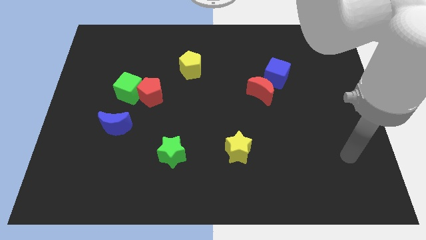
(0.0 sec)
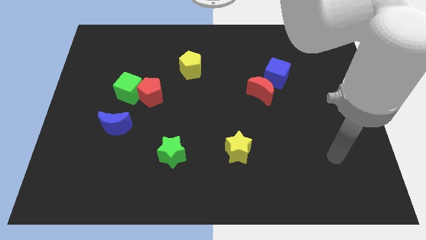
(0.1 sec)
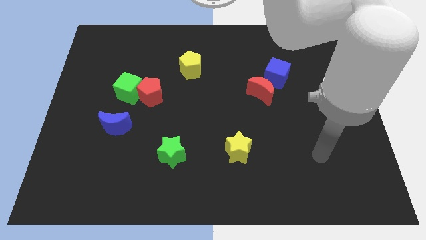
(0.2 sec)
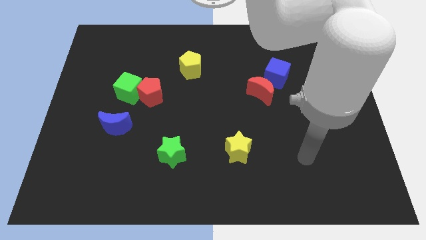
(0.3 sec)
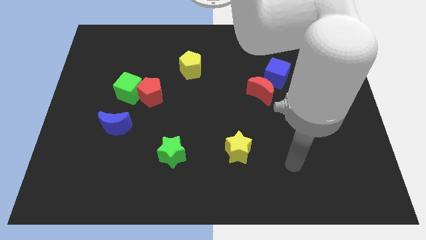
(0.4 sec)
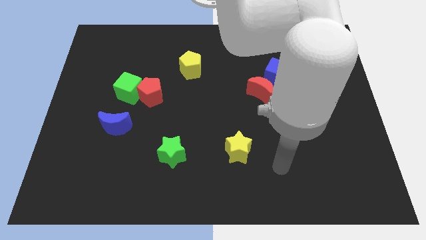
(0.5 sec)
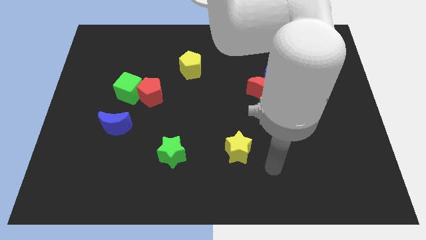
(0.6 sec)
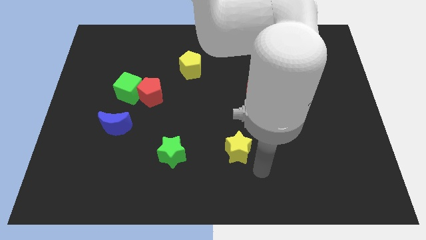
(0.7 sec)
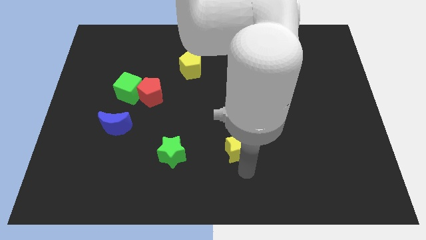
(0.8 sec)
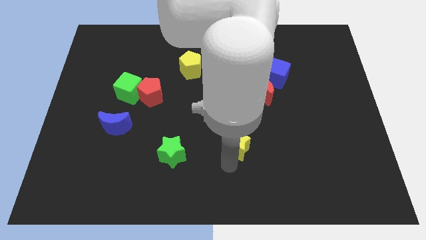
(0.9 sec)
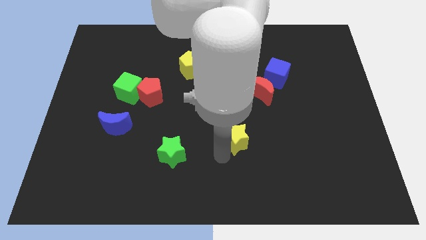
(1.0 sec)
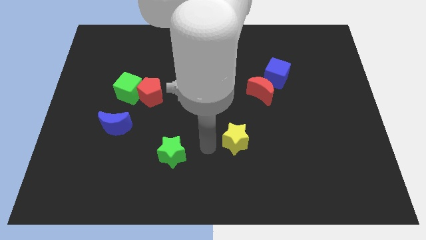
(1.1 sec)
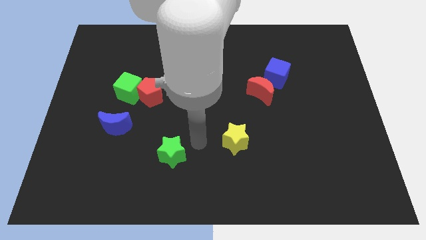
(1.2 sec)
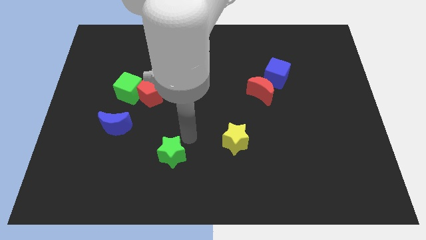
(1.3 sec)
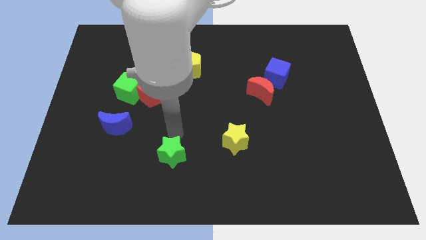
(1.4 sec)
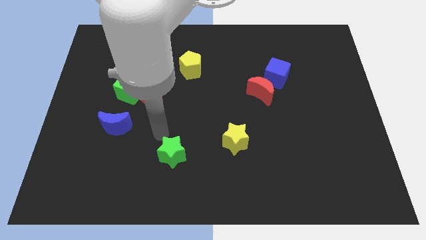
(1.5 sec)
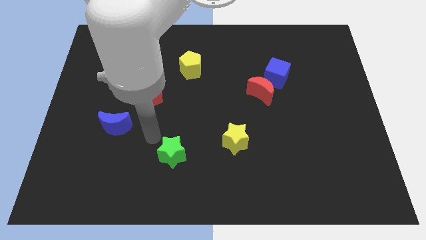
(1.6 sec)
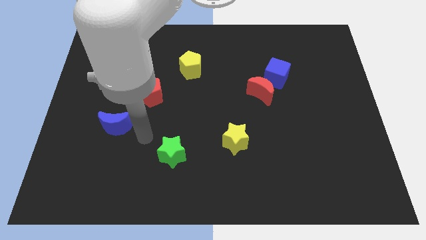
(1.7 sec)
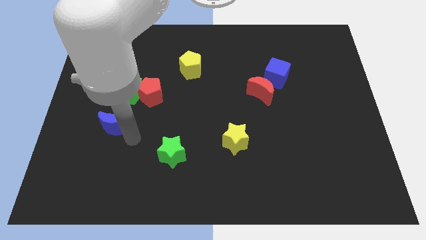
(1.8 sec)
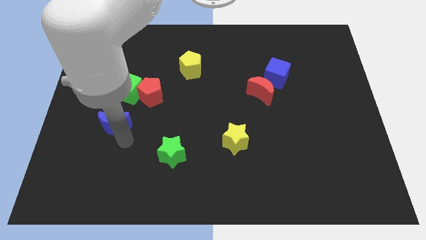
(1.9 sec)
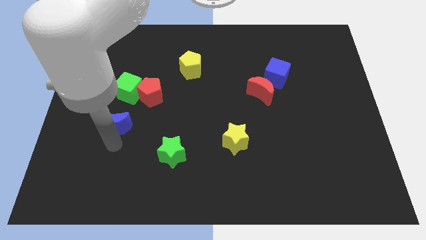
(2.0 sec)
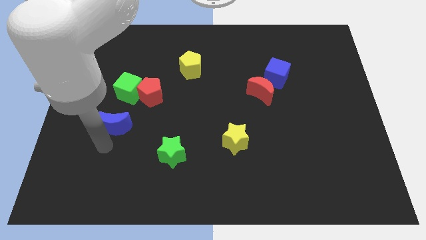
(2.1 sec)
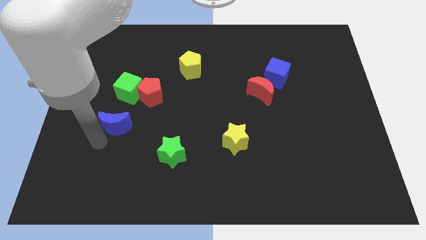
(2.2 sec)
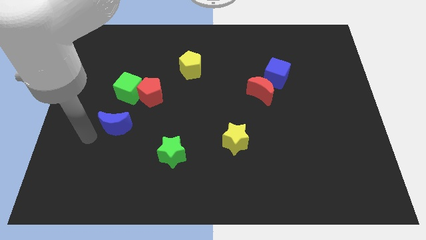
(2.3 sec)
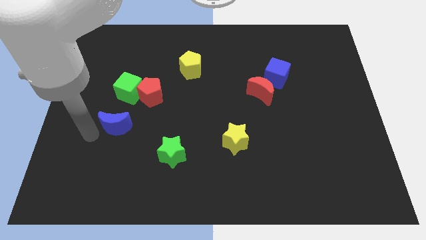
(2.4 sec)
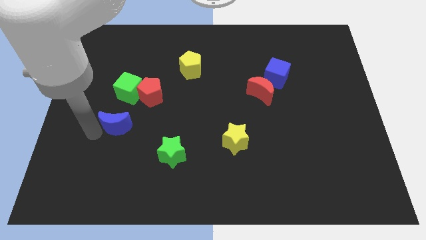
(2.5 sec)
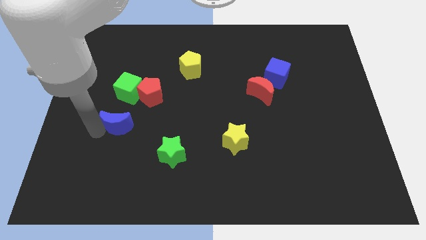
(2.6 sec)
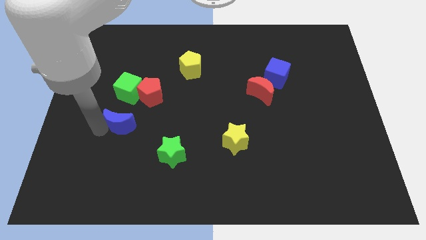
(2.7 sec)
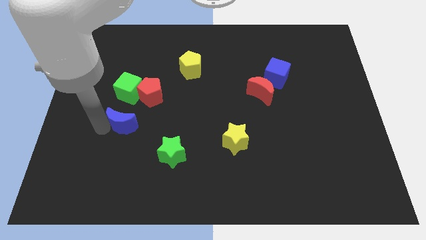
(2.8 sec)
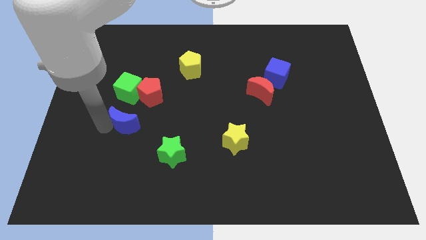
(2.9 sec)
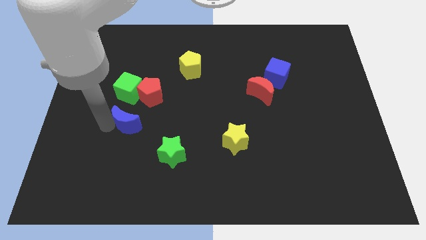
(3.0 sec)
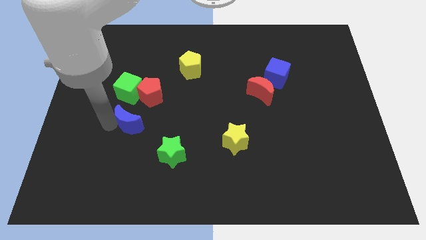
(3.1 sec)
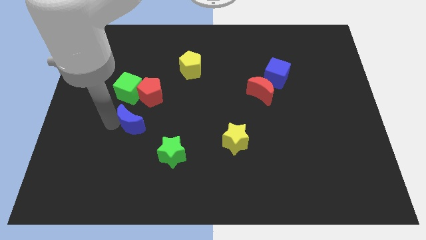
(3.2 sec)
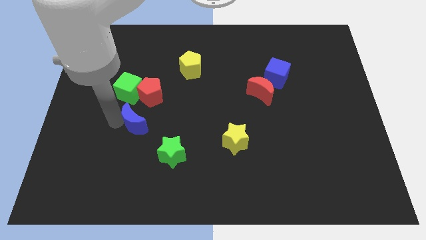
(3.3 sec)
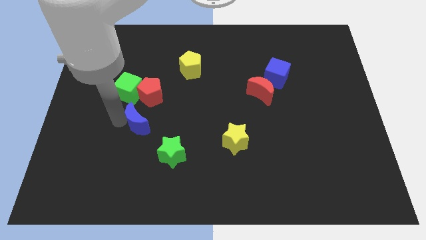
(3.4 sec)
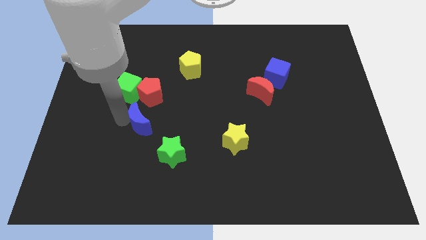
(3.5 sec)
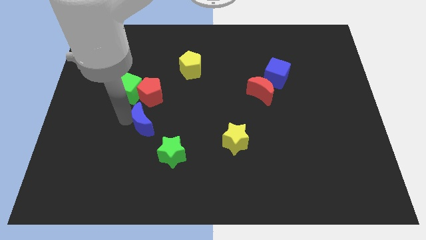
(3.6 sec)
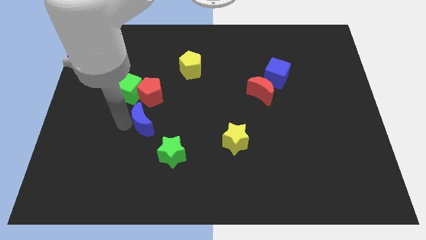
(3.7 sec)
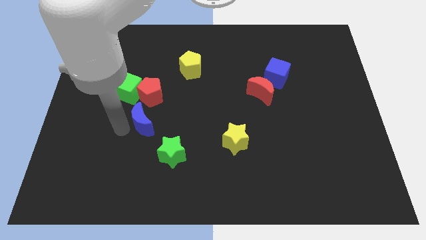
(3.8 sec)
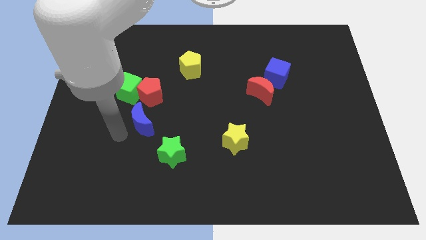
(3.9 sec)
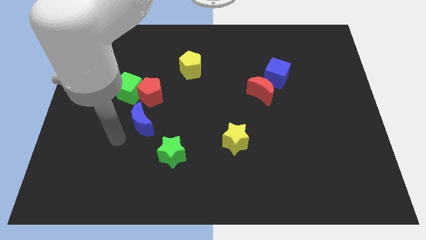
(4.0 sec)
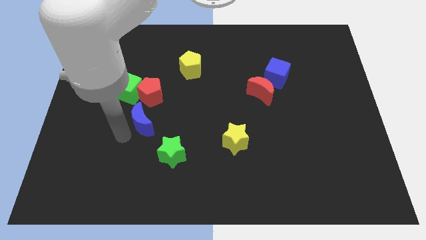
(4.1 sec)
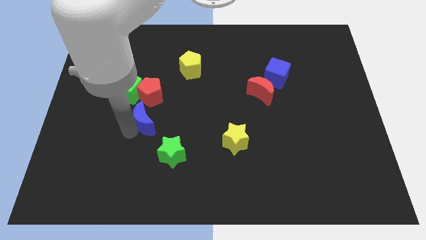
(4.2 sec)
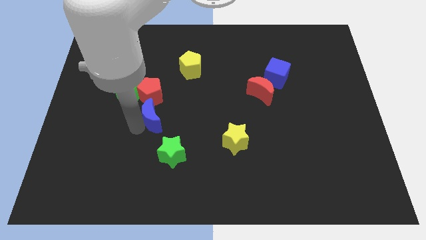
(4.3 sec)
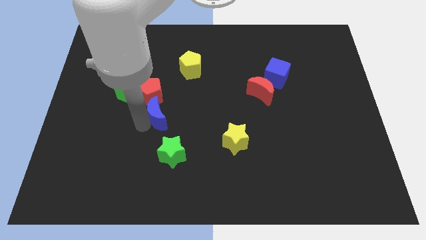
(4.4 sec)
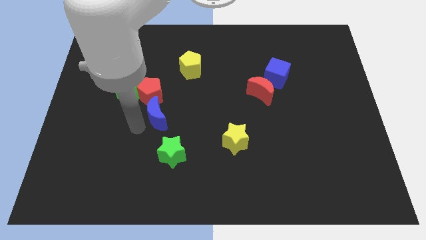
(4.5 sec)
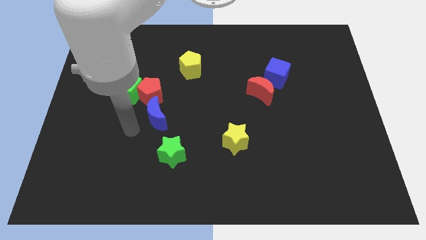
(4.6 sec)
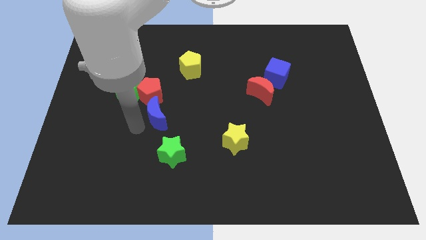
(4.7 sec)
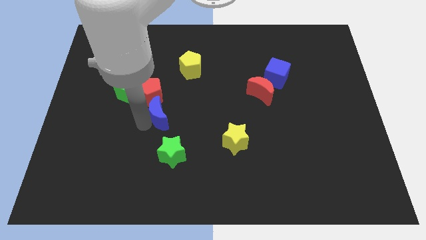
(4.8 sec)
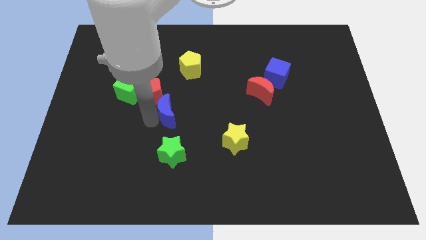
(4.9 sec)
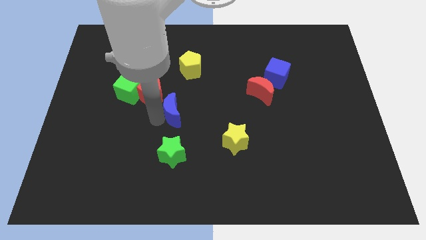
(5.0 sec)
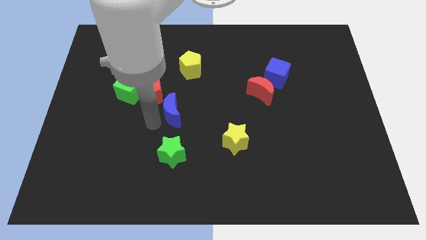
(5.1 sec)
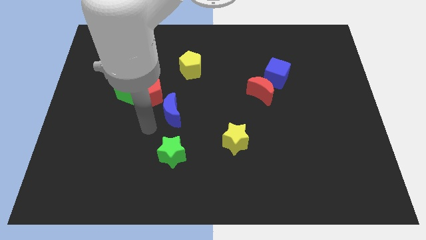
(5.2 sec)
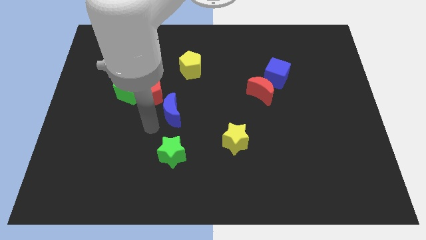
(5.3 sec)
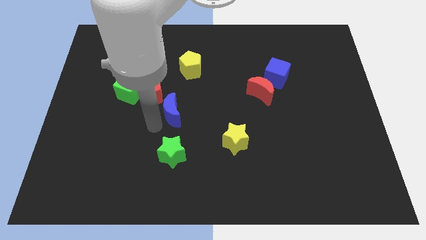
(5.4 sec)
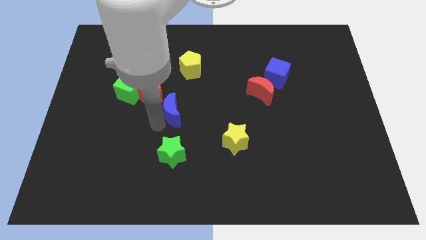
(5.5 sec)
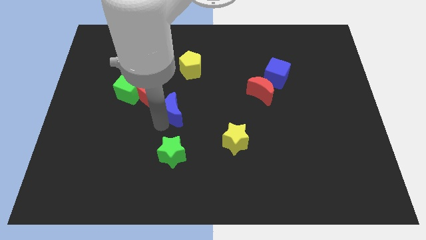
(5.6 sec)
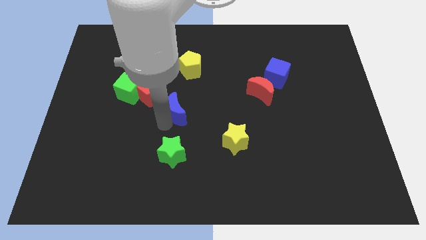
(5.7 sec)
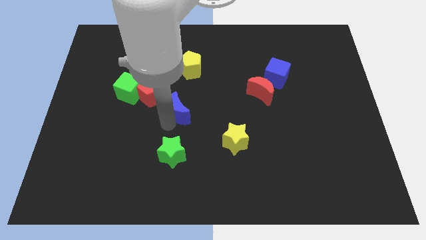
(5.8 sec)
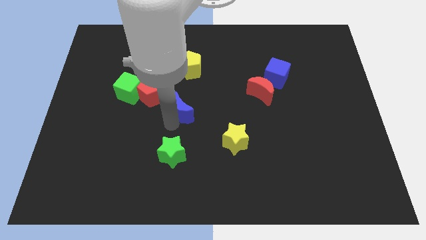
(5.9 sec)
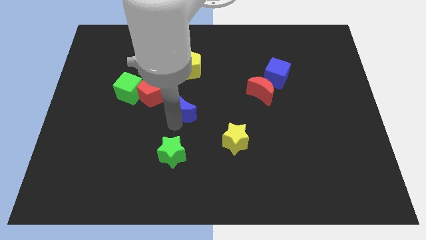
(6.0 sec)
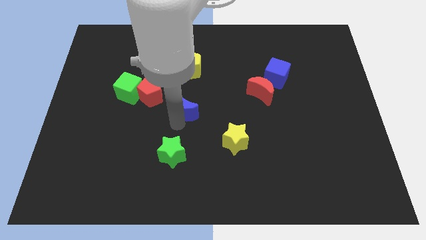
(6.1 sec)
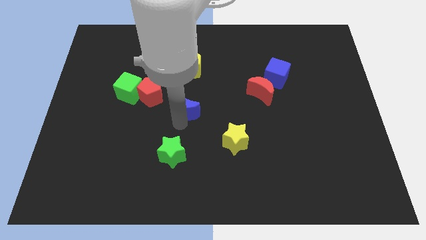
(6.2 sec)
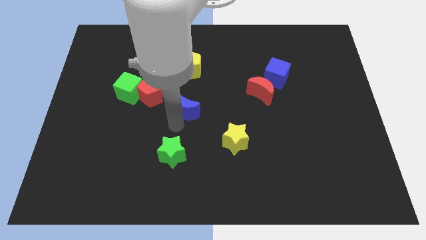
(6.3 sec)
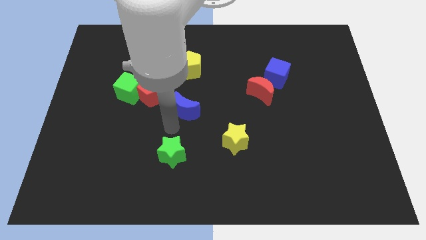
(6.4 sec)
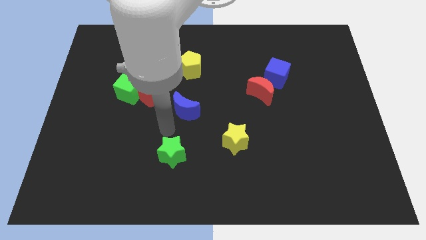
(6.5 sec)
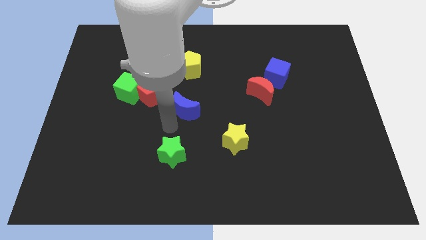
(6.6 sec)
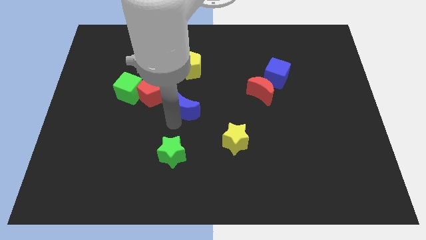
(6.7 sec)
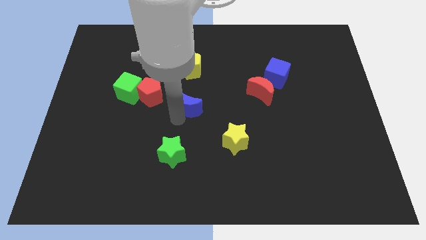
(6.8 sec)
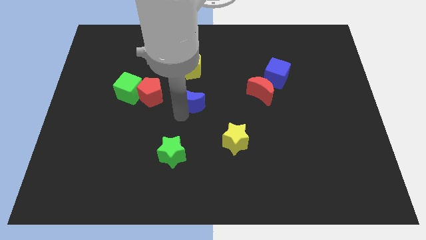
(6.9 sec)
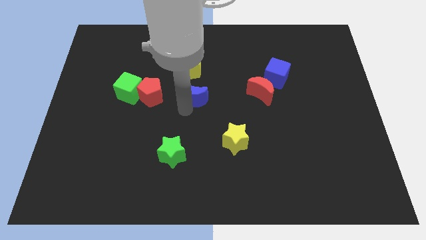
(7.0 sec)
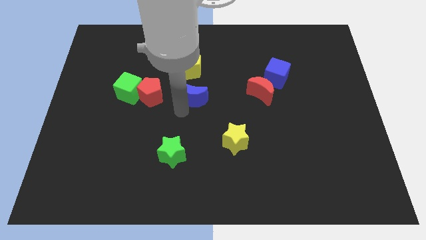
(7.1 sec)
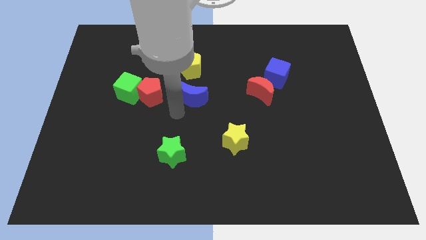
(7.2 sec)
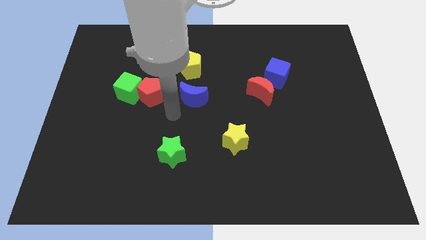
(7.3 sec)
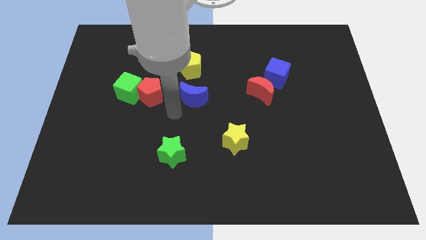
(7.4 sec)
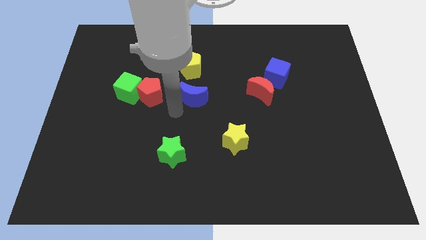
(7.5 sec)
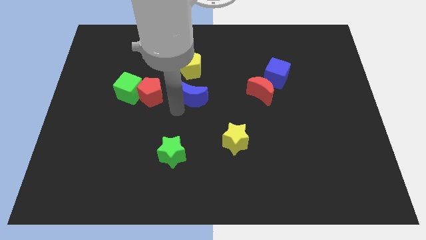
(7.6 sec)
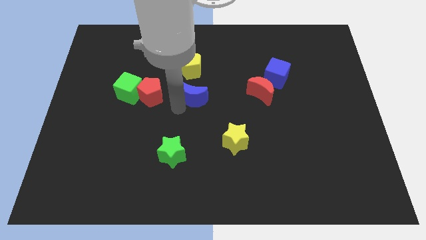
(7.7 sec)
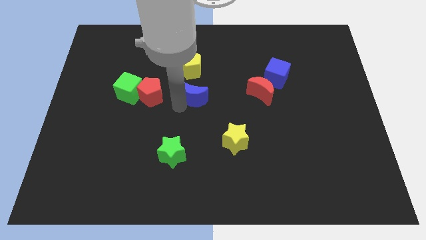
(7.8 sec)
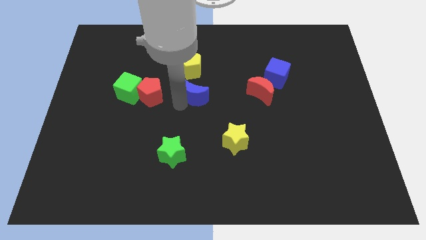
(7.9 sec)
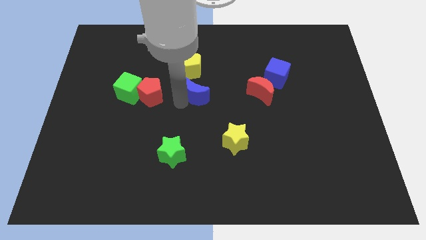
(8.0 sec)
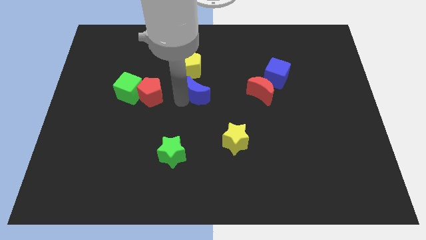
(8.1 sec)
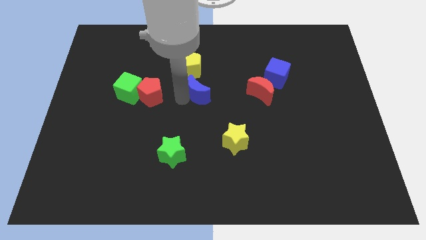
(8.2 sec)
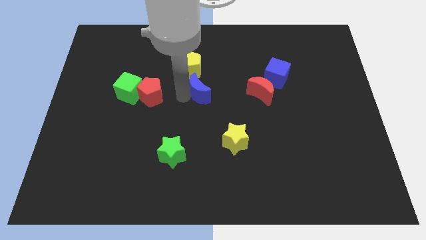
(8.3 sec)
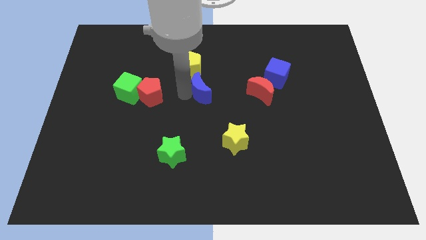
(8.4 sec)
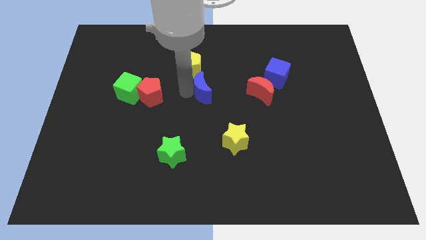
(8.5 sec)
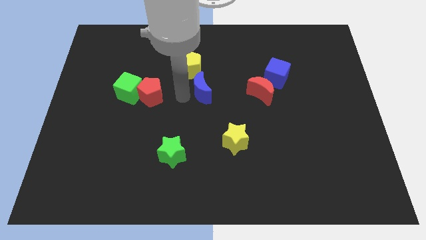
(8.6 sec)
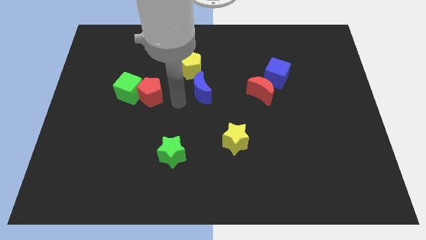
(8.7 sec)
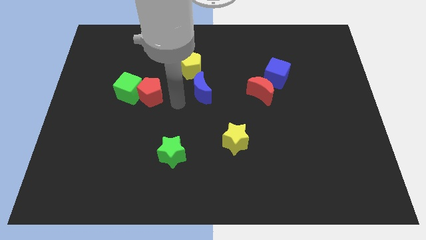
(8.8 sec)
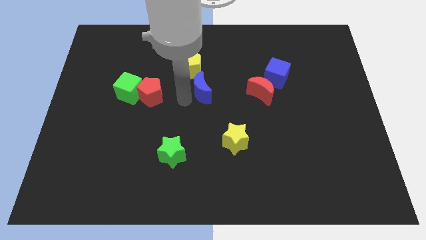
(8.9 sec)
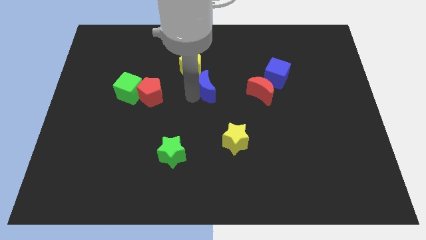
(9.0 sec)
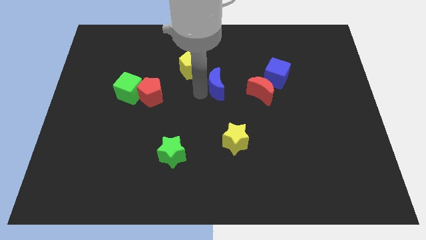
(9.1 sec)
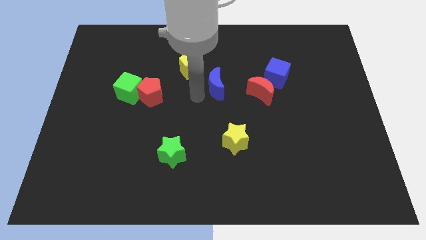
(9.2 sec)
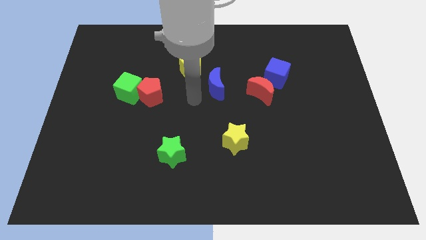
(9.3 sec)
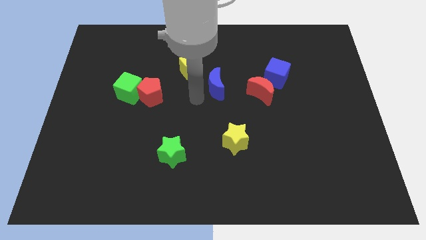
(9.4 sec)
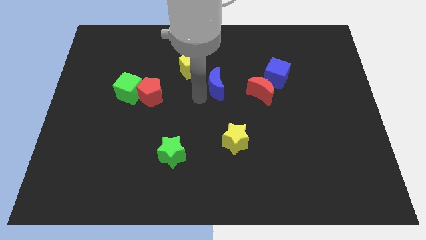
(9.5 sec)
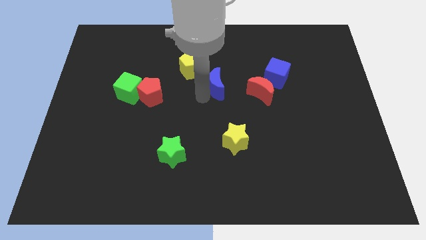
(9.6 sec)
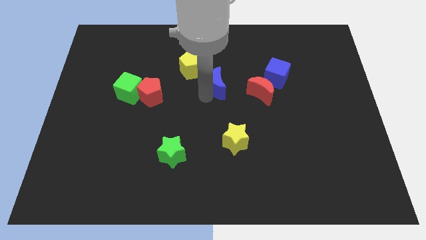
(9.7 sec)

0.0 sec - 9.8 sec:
slide the blue moon to the left of the blue cube
